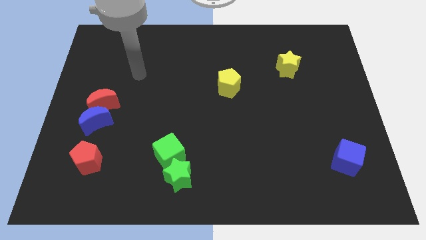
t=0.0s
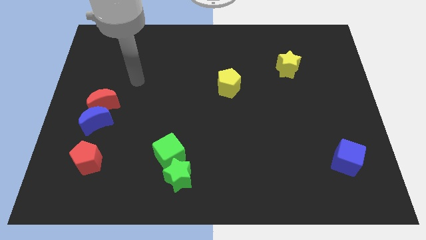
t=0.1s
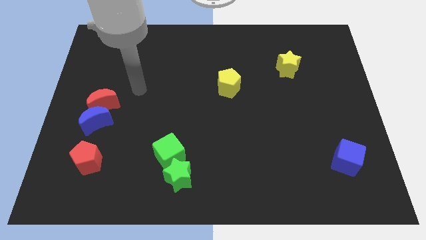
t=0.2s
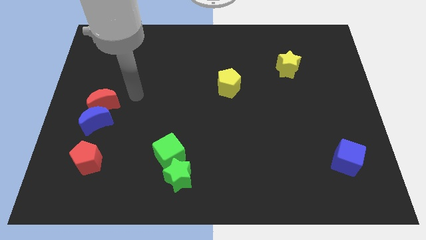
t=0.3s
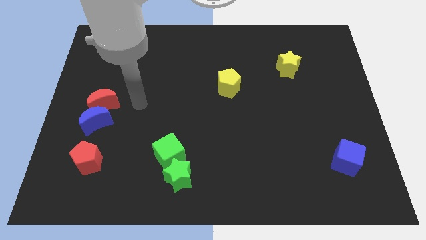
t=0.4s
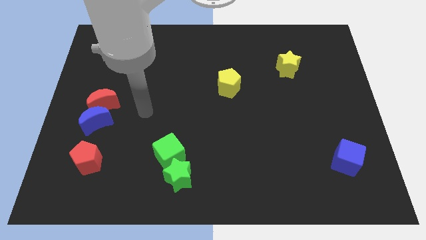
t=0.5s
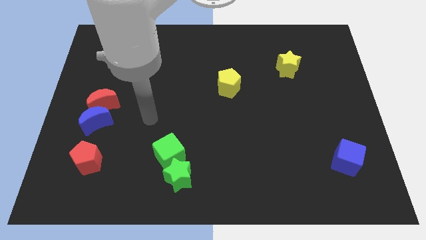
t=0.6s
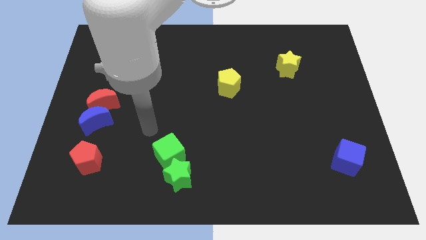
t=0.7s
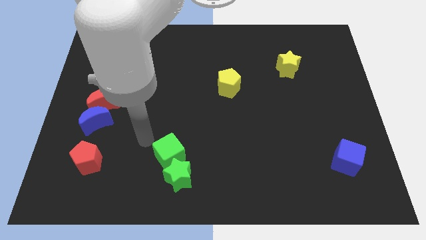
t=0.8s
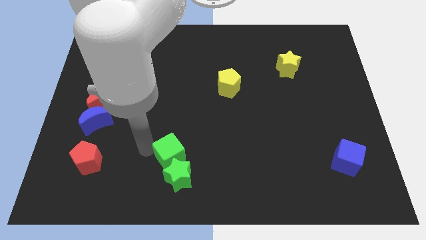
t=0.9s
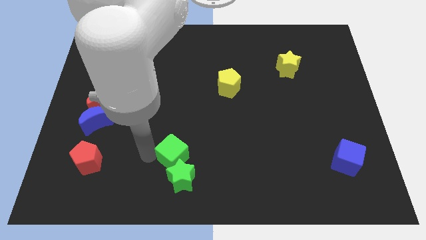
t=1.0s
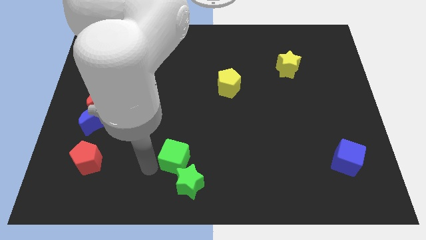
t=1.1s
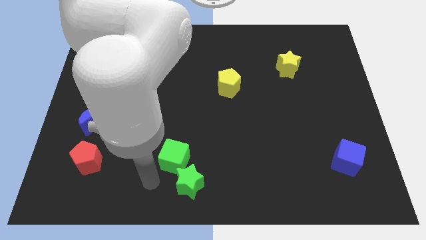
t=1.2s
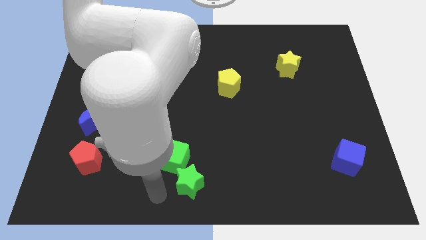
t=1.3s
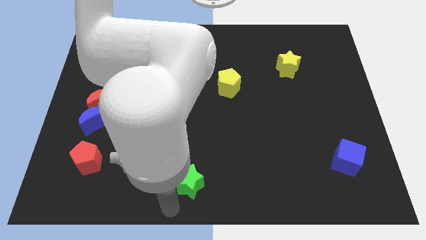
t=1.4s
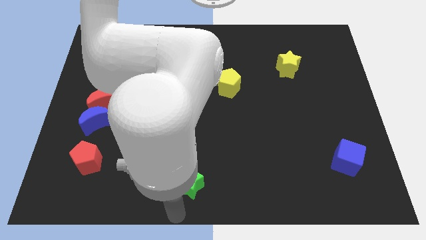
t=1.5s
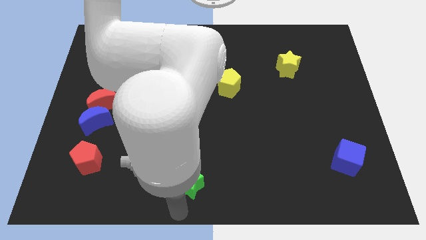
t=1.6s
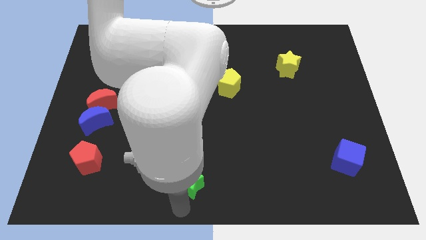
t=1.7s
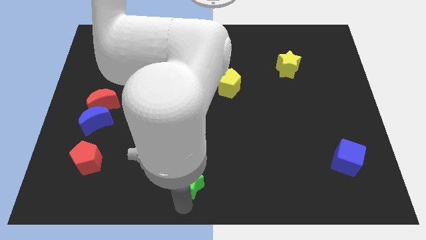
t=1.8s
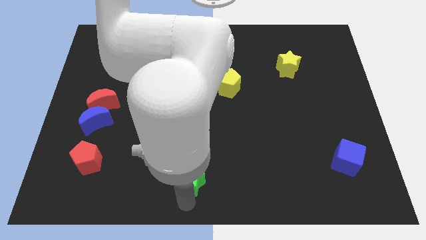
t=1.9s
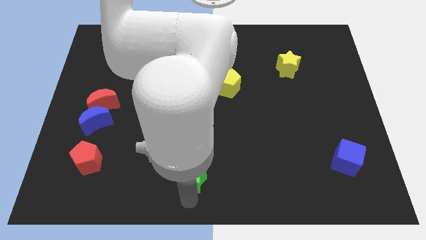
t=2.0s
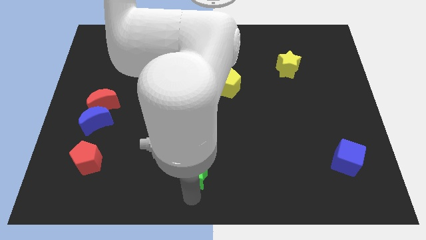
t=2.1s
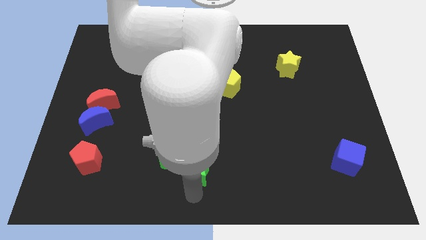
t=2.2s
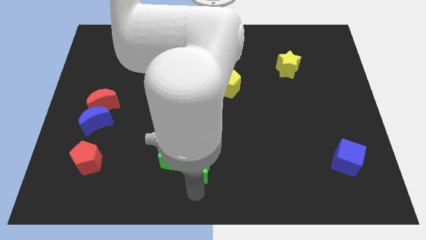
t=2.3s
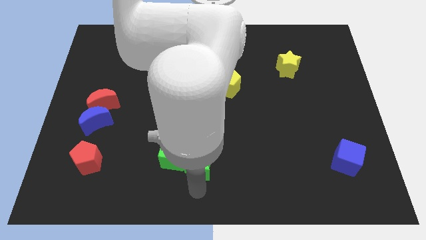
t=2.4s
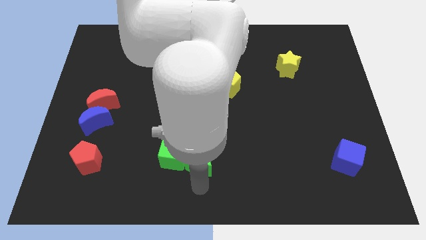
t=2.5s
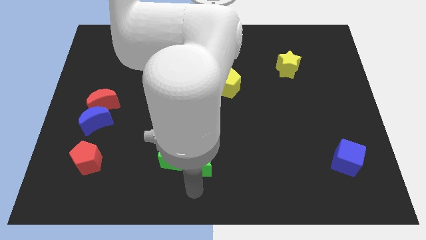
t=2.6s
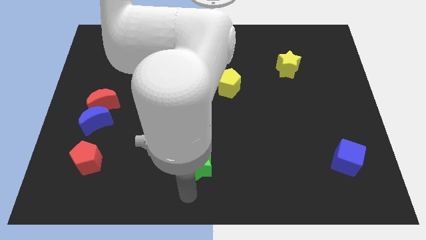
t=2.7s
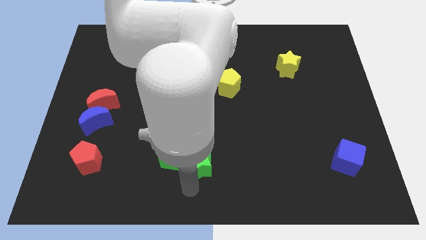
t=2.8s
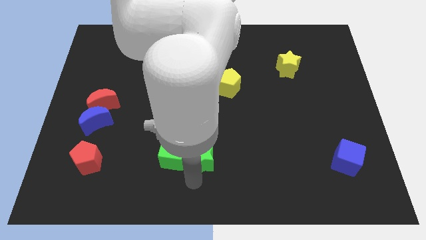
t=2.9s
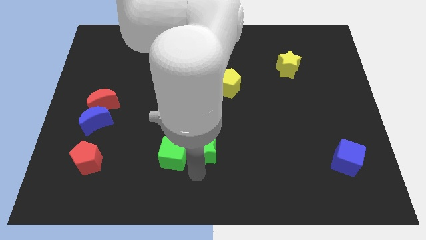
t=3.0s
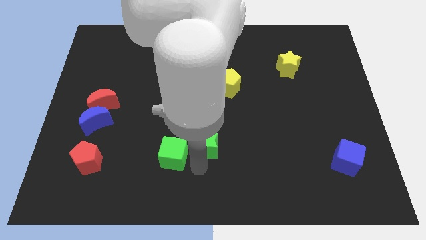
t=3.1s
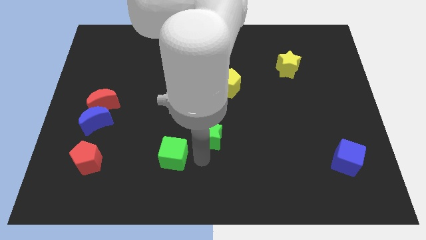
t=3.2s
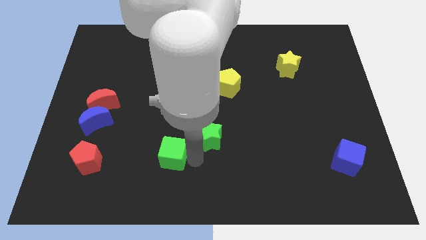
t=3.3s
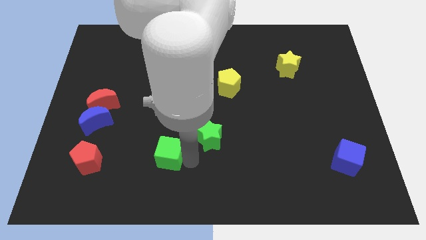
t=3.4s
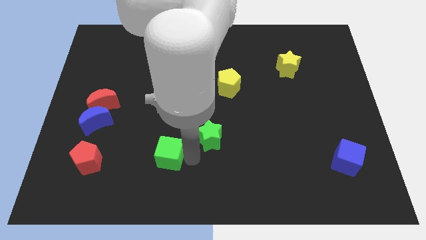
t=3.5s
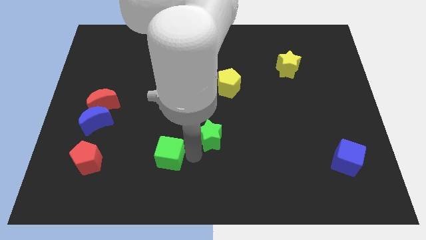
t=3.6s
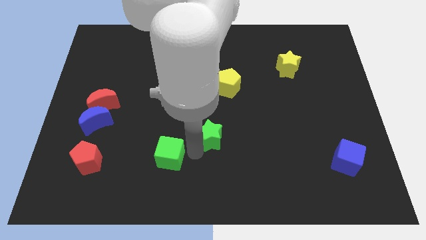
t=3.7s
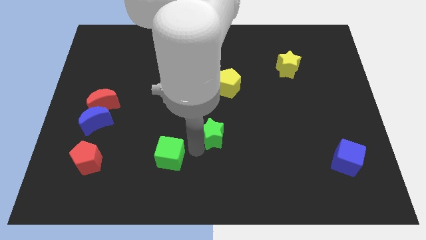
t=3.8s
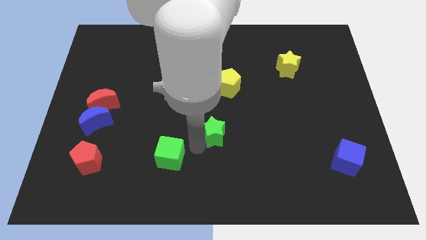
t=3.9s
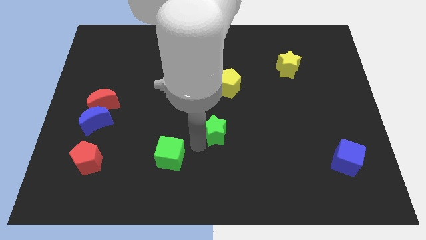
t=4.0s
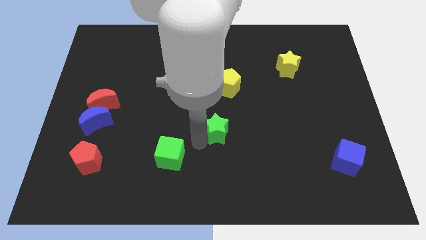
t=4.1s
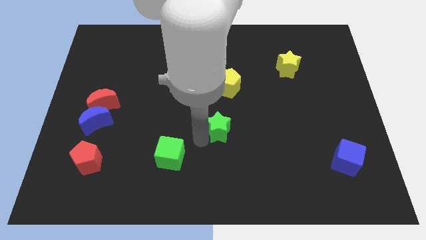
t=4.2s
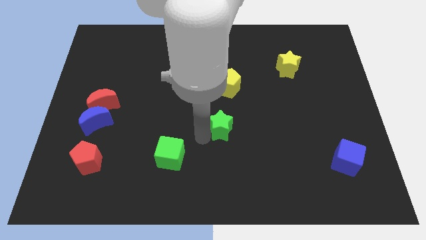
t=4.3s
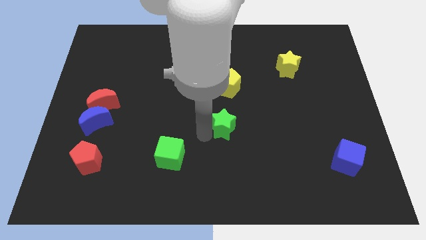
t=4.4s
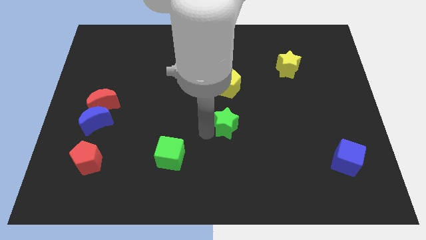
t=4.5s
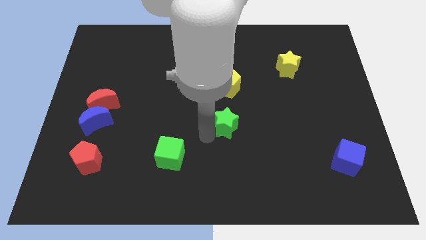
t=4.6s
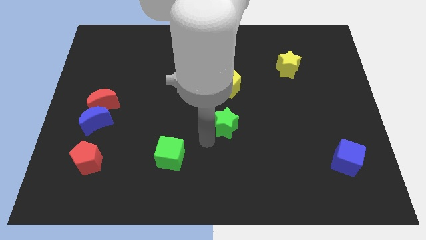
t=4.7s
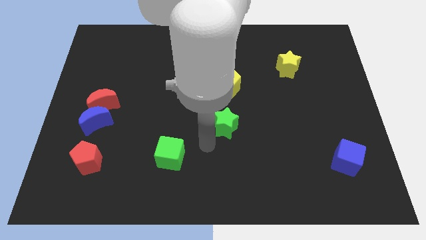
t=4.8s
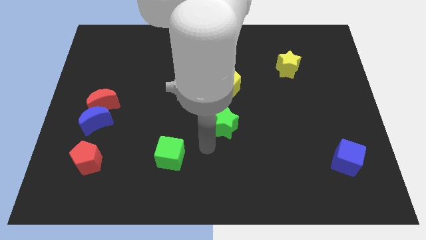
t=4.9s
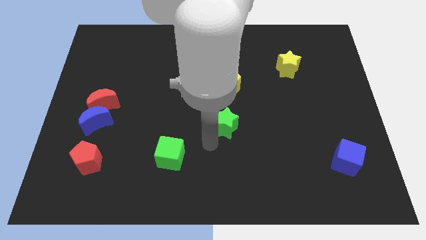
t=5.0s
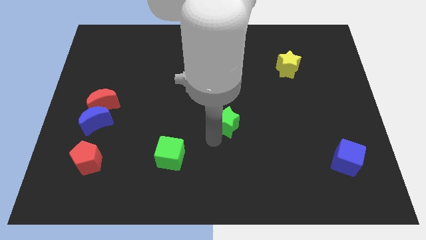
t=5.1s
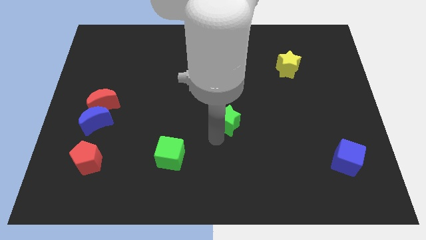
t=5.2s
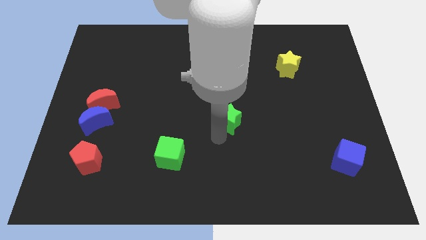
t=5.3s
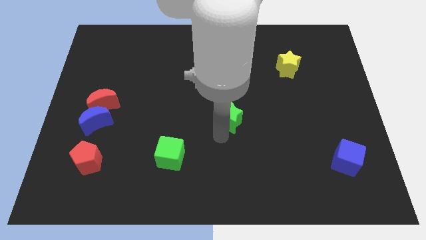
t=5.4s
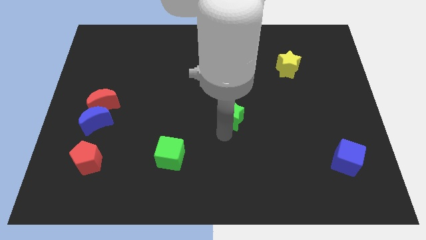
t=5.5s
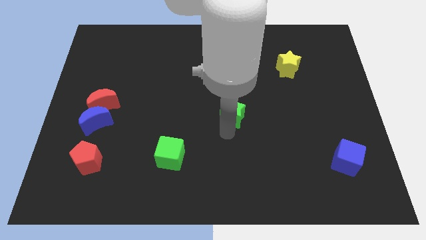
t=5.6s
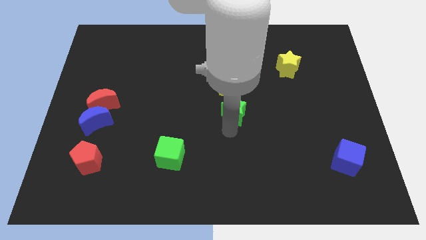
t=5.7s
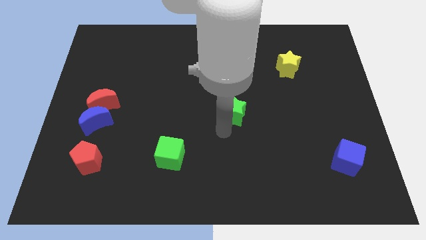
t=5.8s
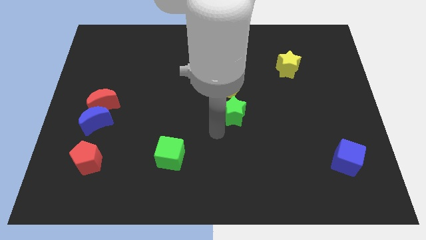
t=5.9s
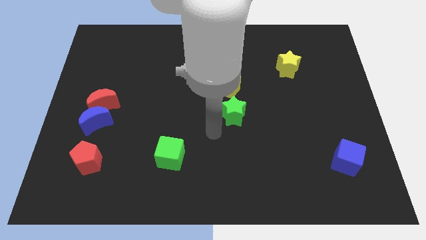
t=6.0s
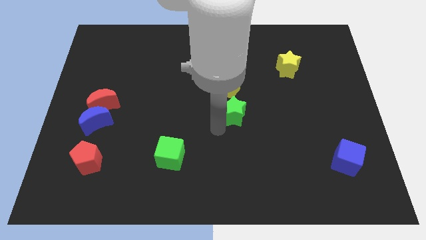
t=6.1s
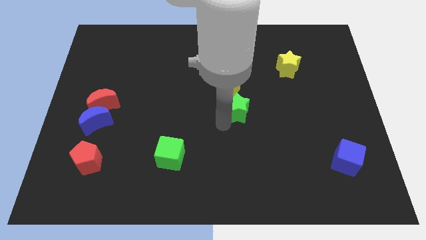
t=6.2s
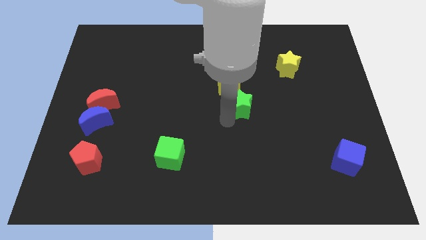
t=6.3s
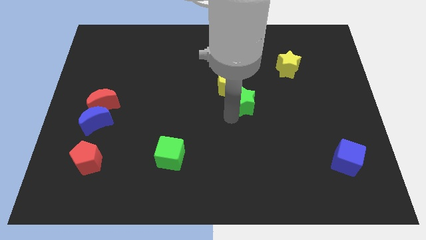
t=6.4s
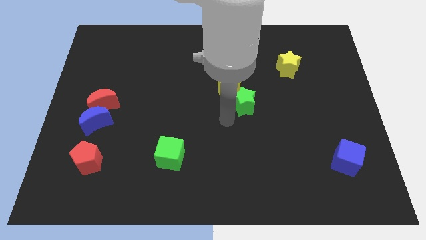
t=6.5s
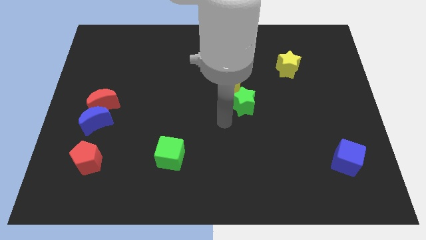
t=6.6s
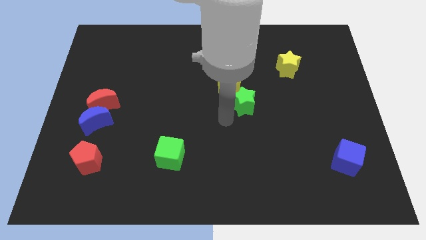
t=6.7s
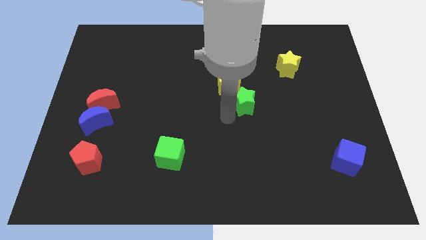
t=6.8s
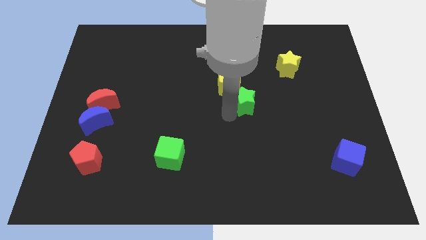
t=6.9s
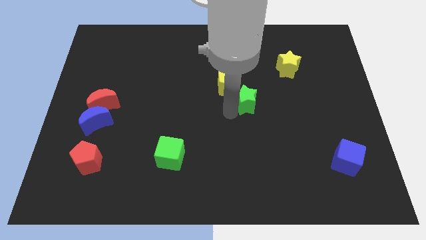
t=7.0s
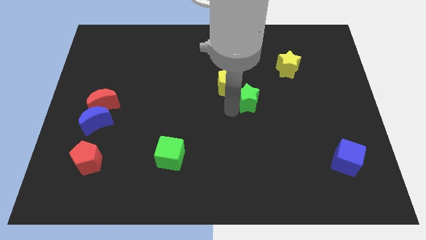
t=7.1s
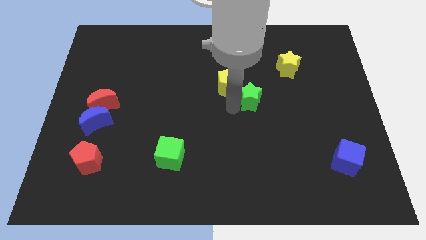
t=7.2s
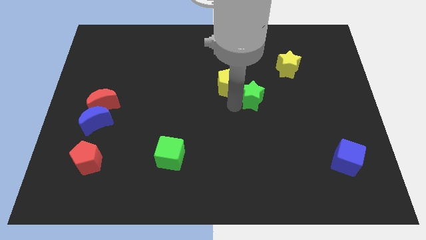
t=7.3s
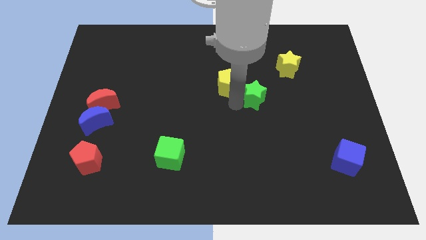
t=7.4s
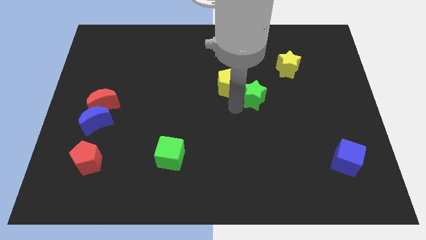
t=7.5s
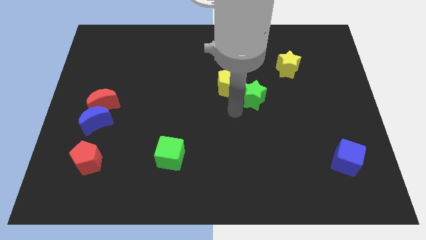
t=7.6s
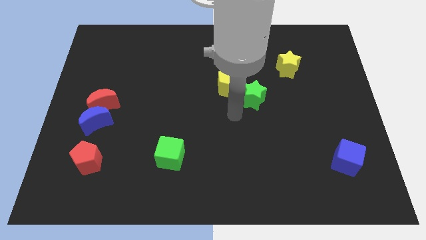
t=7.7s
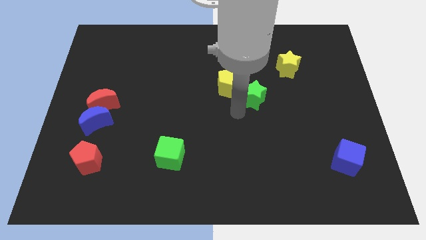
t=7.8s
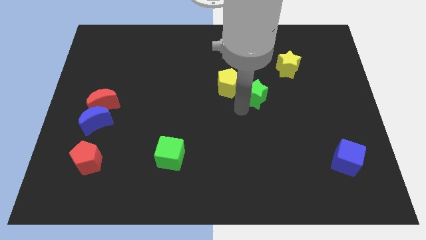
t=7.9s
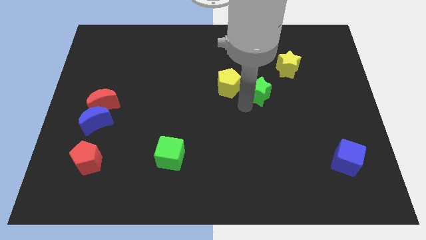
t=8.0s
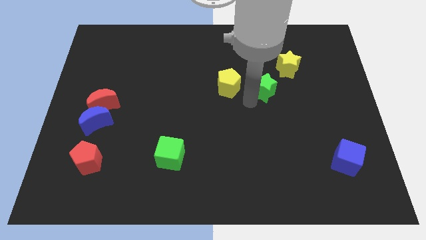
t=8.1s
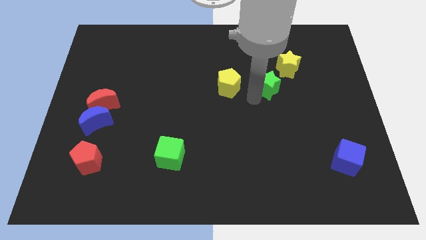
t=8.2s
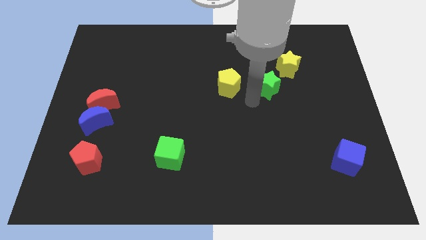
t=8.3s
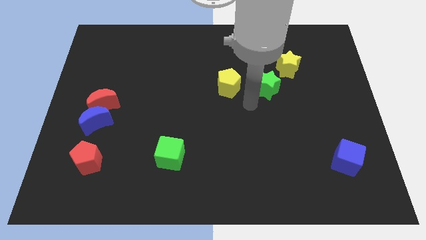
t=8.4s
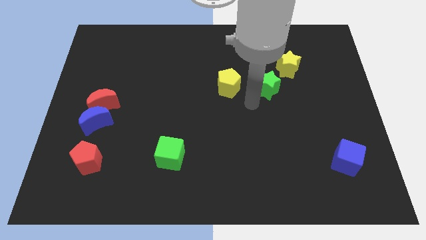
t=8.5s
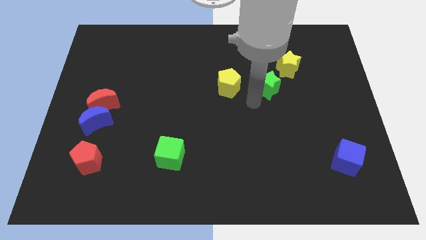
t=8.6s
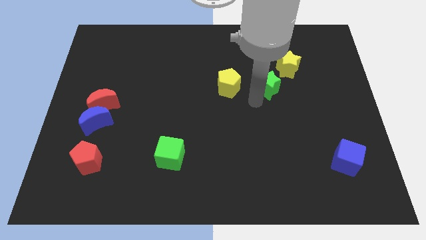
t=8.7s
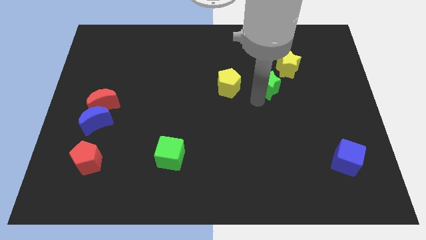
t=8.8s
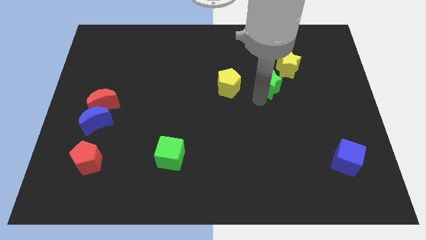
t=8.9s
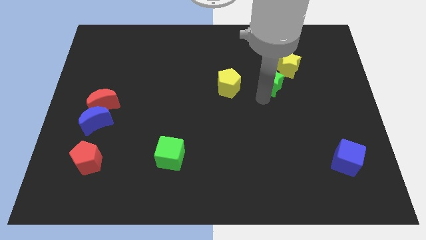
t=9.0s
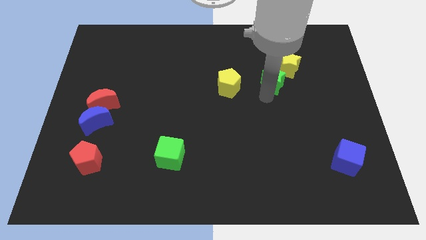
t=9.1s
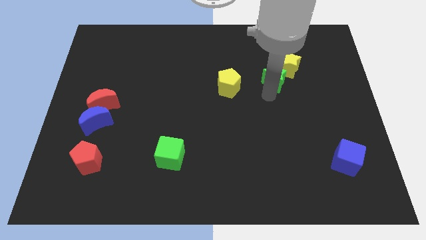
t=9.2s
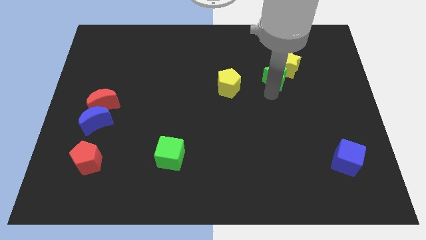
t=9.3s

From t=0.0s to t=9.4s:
move the green star to the yellow star
